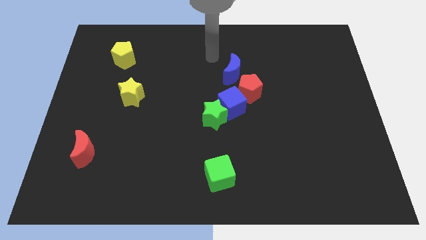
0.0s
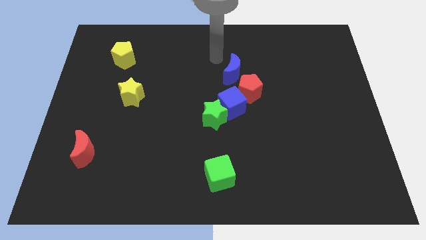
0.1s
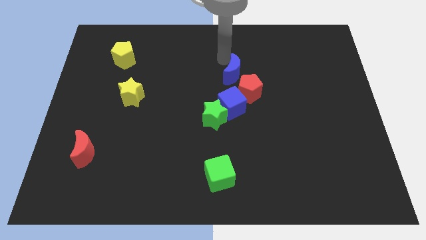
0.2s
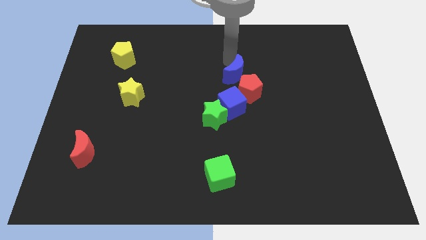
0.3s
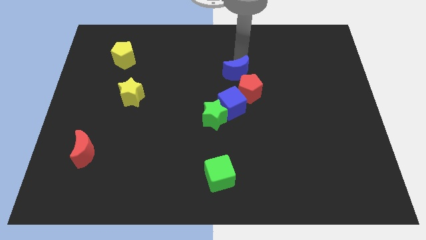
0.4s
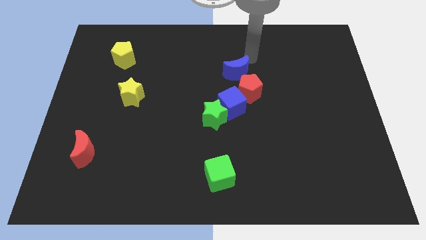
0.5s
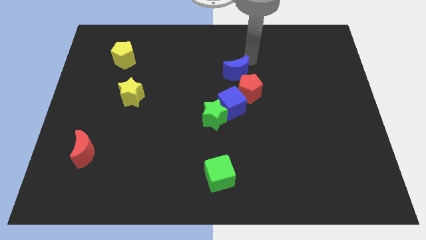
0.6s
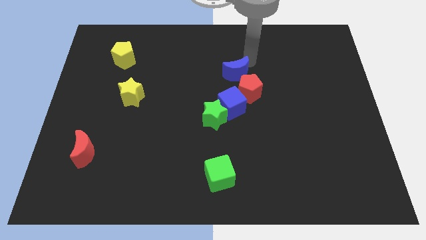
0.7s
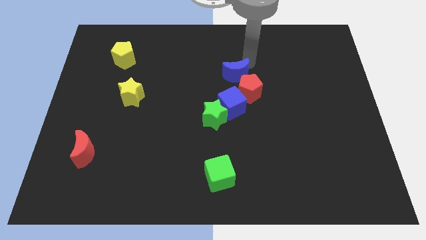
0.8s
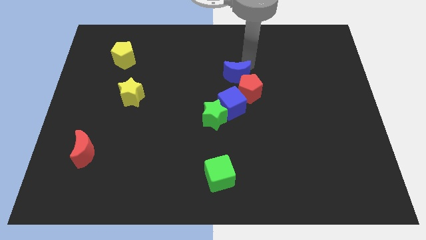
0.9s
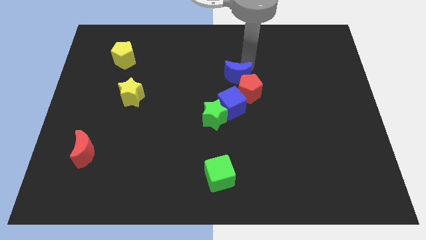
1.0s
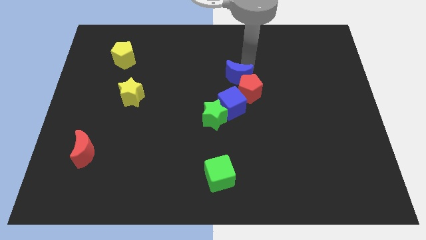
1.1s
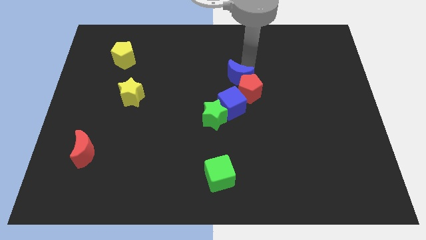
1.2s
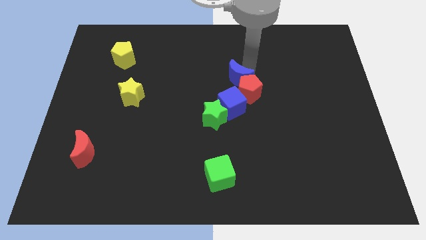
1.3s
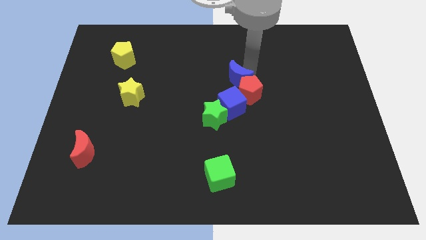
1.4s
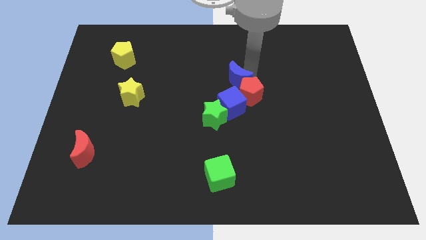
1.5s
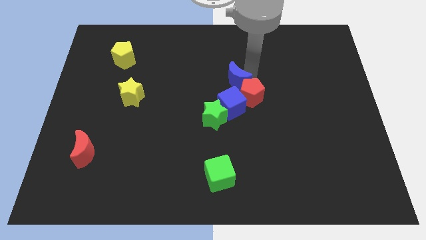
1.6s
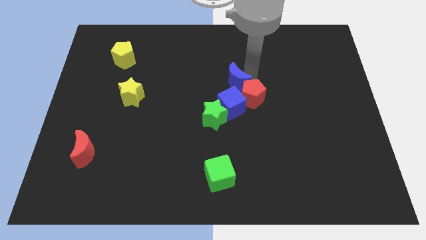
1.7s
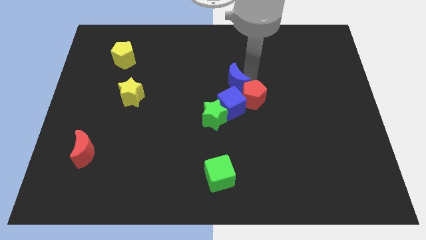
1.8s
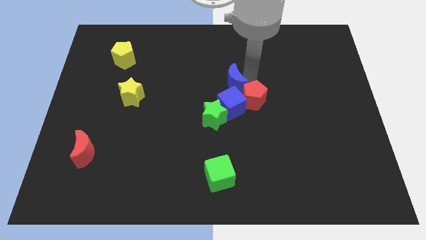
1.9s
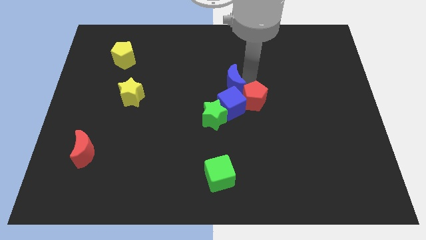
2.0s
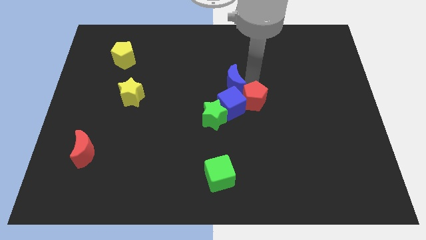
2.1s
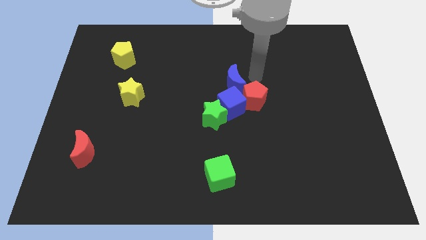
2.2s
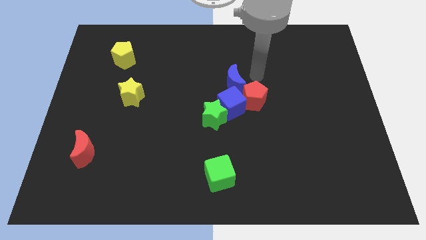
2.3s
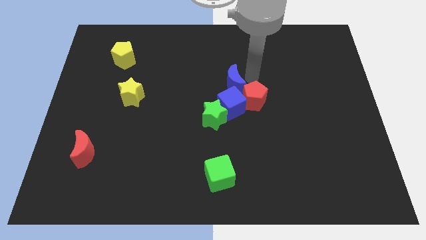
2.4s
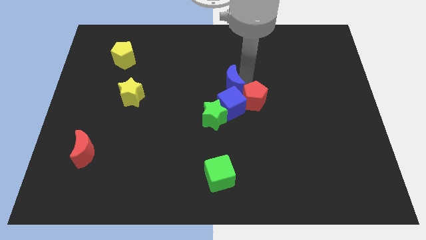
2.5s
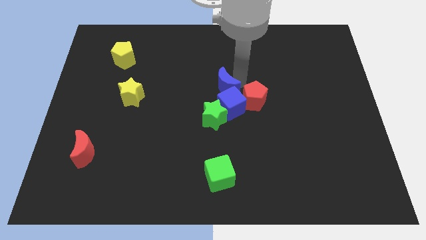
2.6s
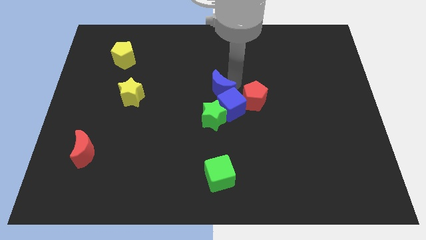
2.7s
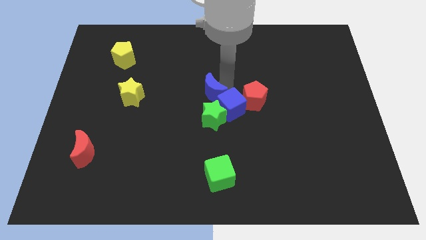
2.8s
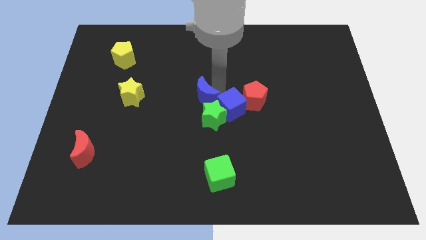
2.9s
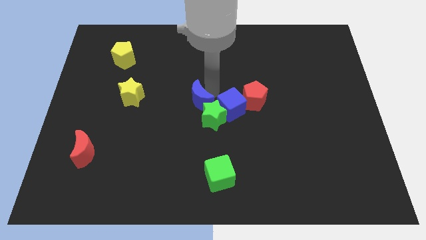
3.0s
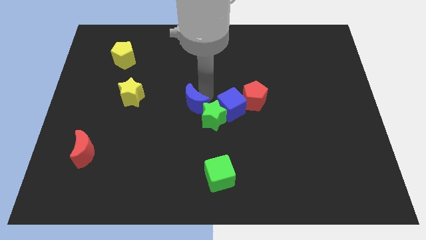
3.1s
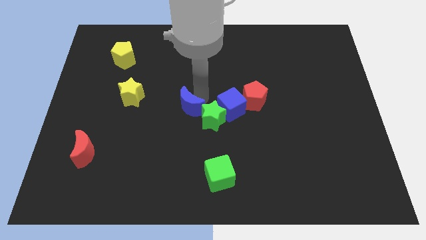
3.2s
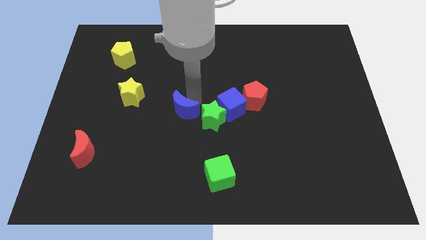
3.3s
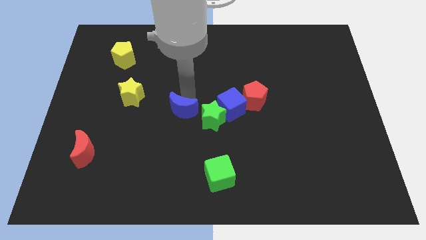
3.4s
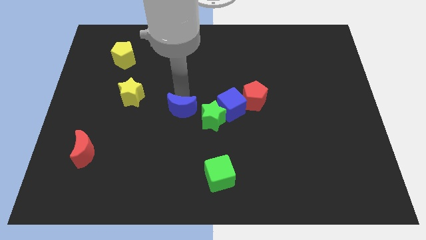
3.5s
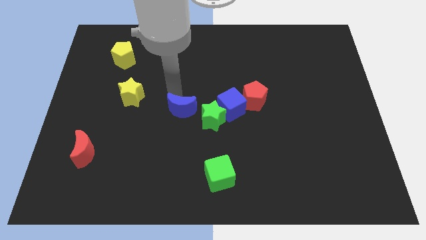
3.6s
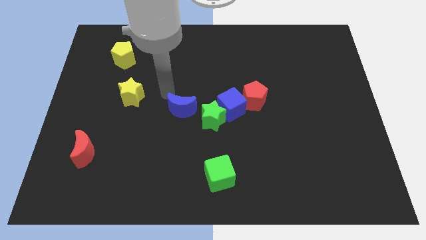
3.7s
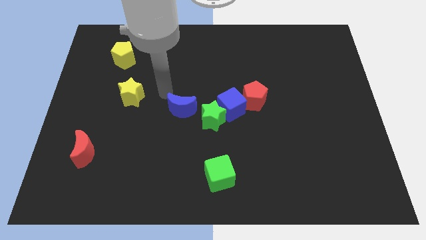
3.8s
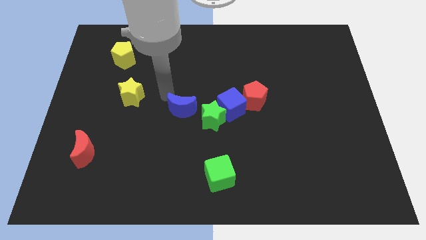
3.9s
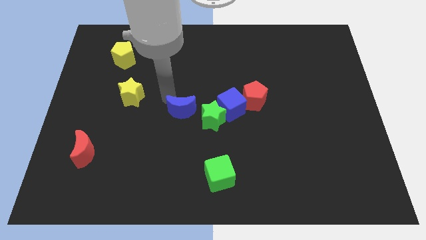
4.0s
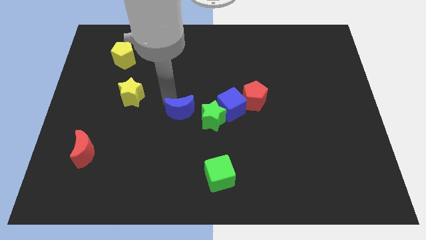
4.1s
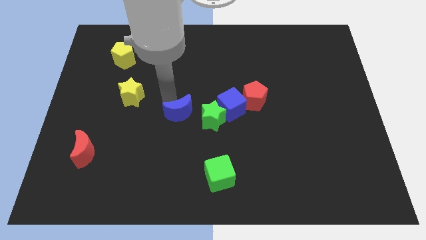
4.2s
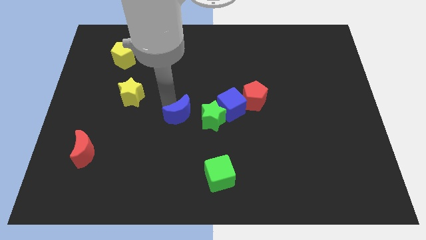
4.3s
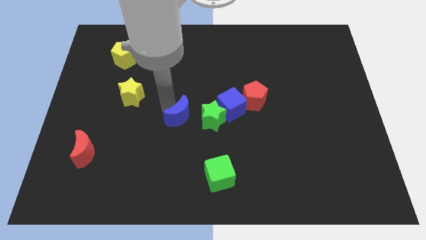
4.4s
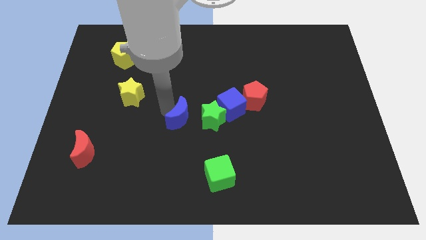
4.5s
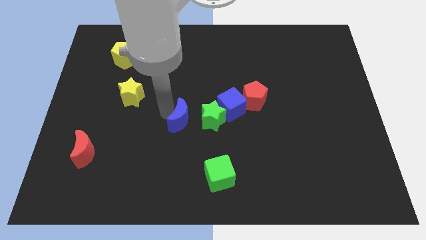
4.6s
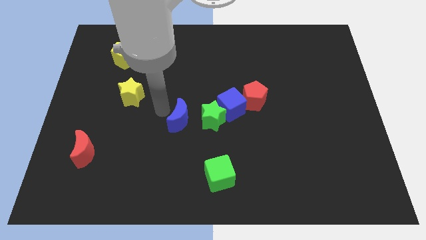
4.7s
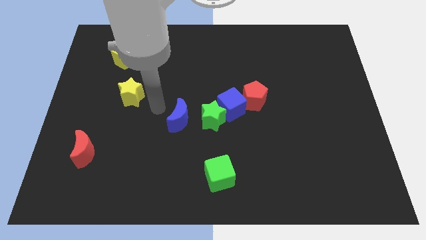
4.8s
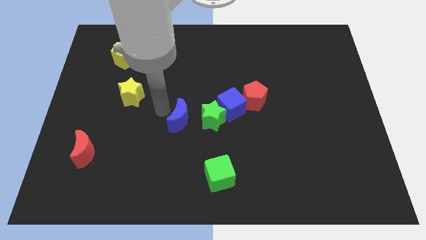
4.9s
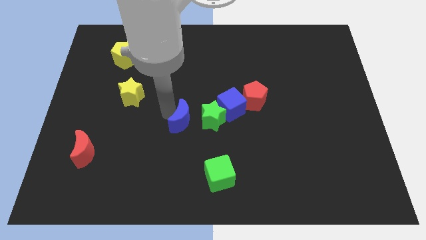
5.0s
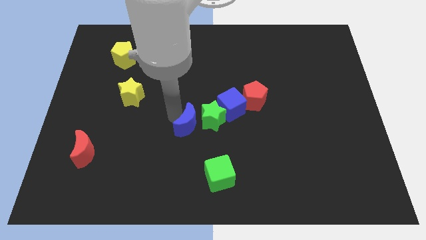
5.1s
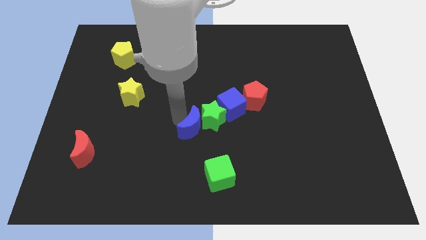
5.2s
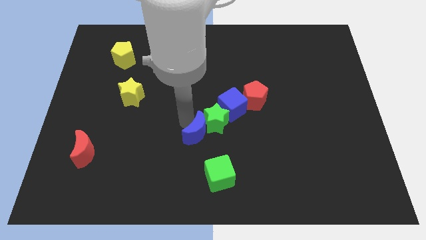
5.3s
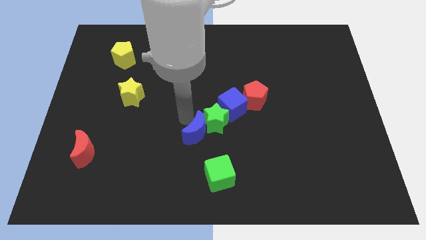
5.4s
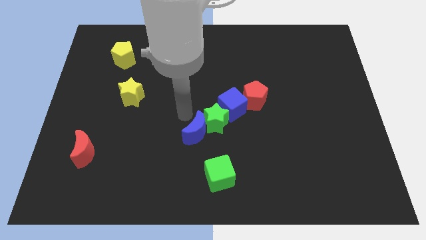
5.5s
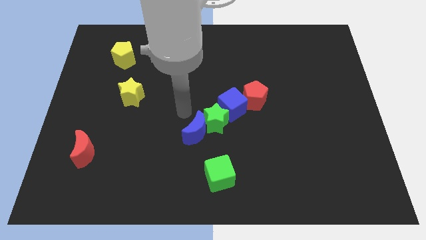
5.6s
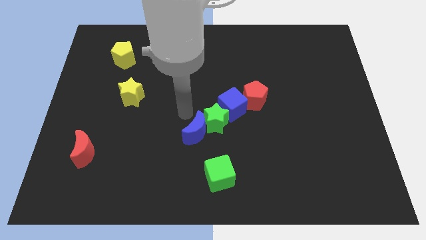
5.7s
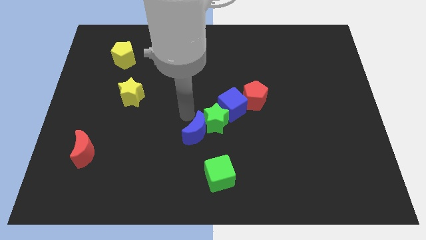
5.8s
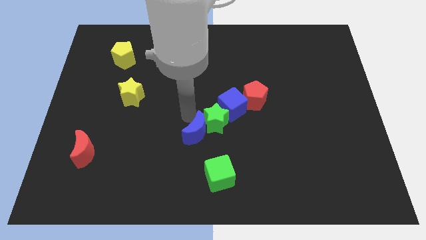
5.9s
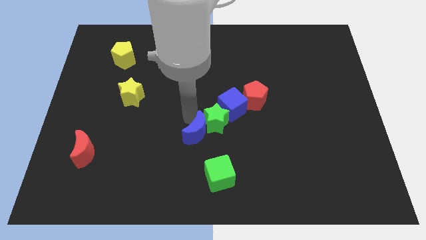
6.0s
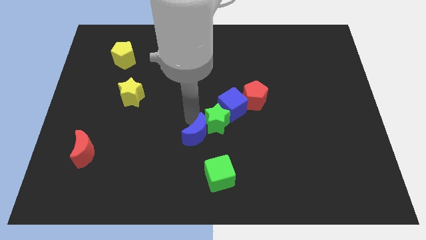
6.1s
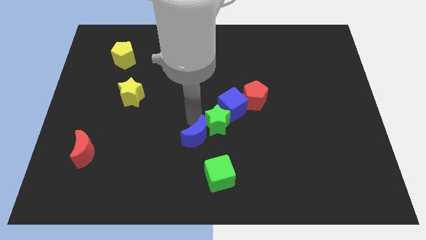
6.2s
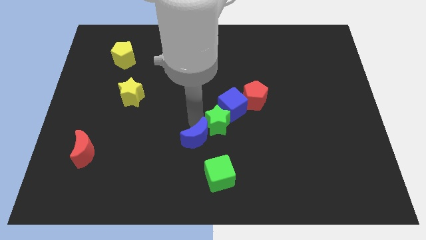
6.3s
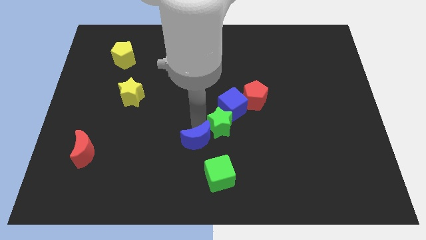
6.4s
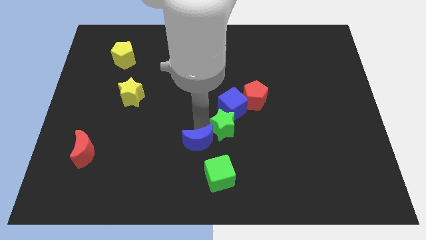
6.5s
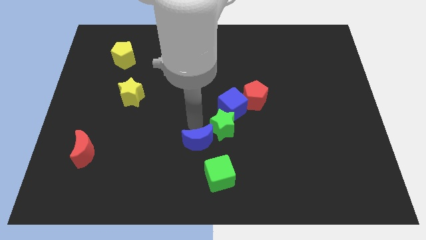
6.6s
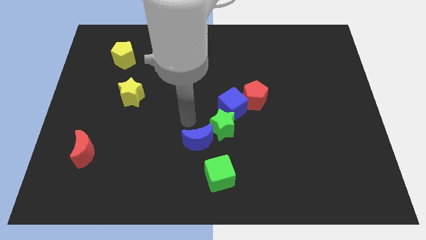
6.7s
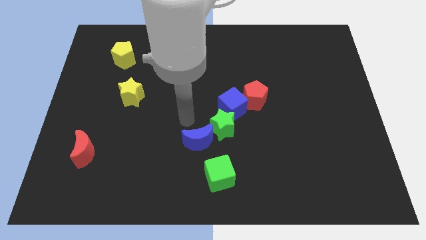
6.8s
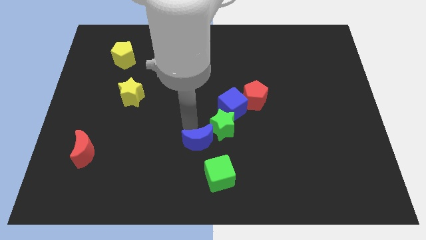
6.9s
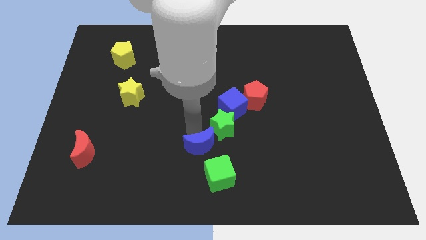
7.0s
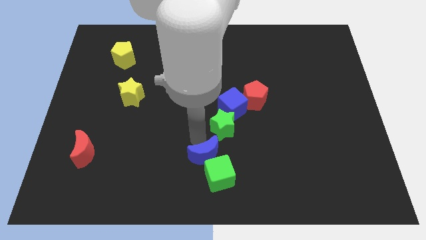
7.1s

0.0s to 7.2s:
push the blue moon close to the green cube
